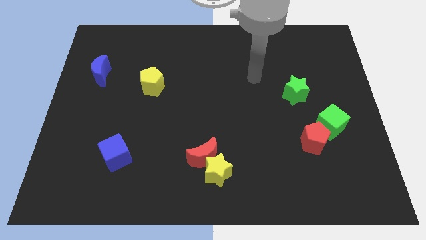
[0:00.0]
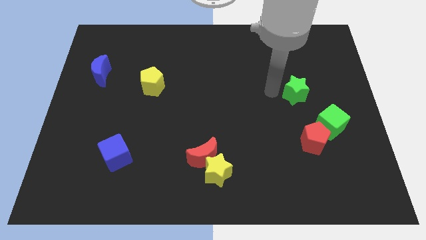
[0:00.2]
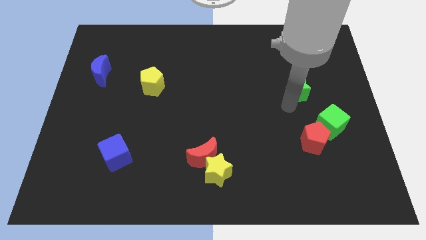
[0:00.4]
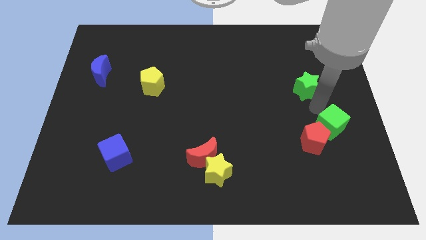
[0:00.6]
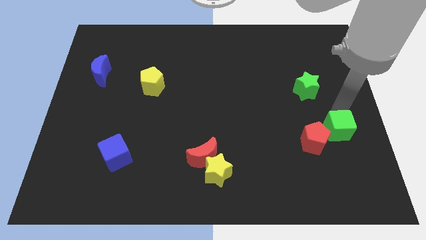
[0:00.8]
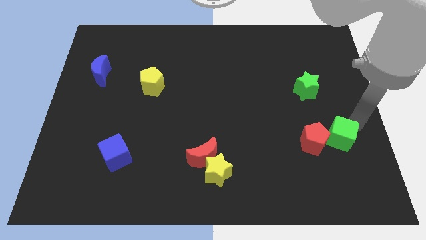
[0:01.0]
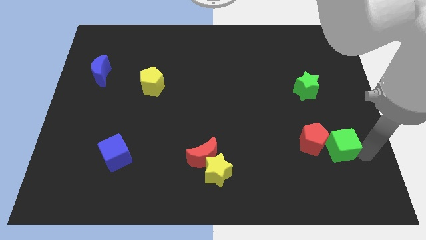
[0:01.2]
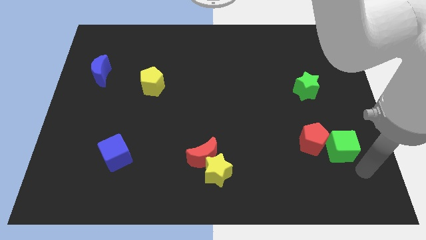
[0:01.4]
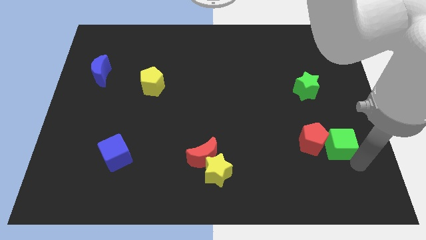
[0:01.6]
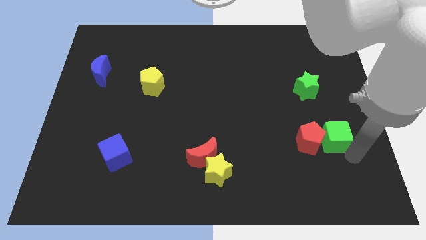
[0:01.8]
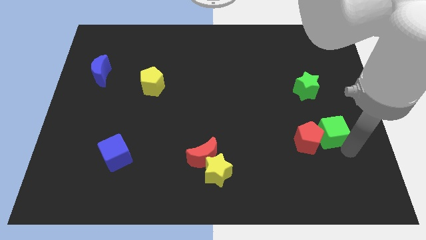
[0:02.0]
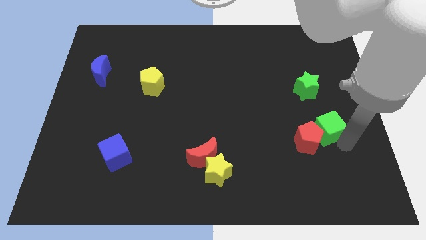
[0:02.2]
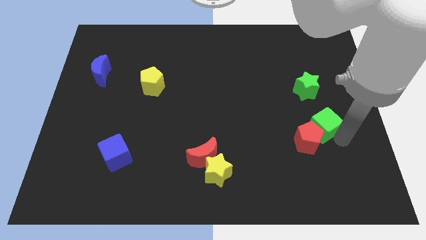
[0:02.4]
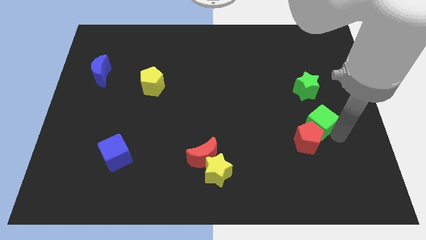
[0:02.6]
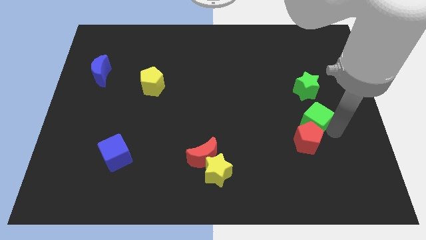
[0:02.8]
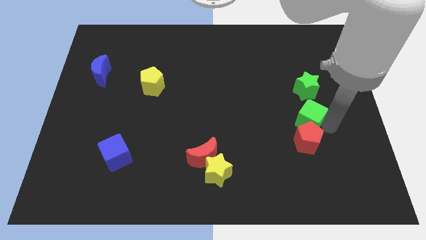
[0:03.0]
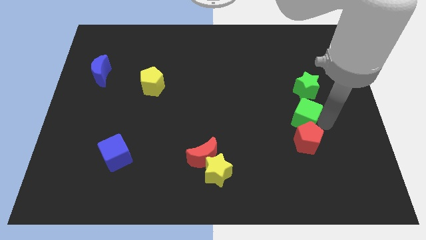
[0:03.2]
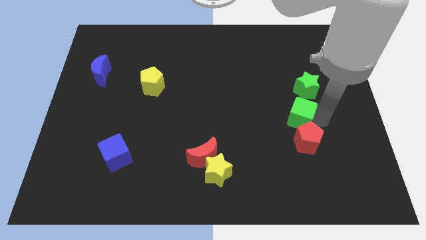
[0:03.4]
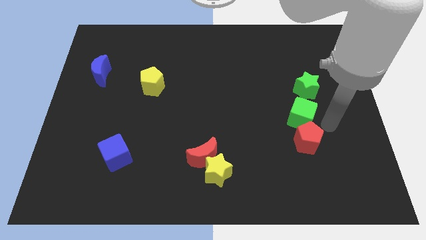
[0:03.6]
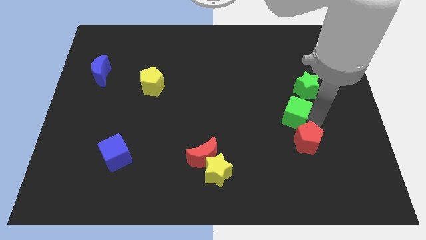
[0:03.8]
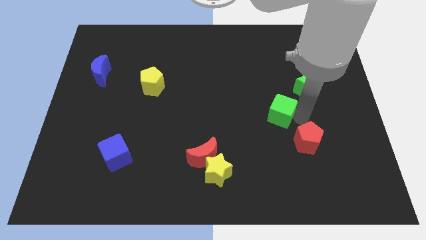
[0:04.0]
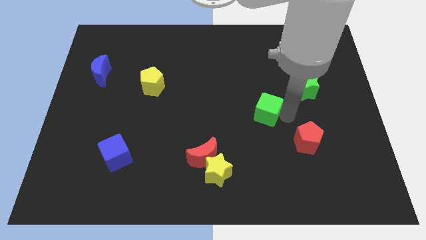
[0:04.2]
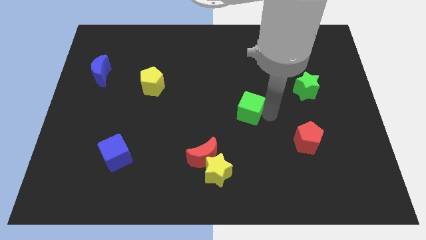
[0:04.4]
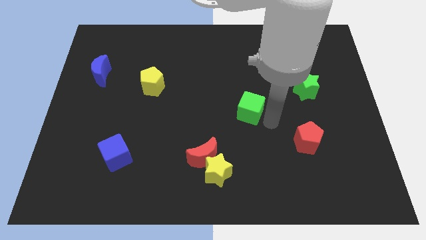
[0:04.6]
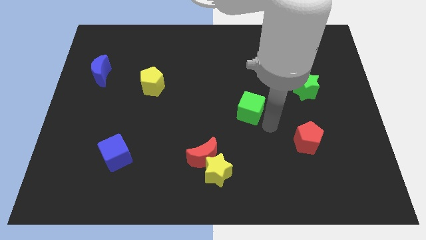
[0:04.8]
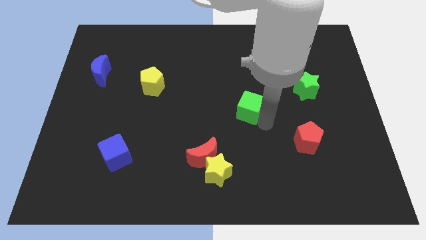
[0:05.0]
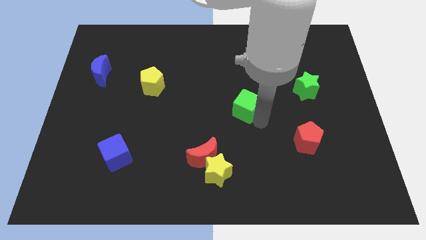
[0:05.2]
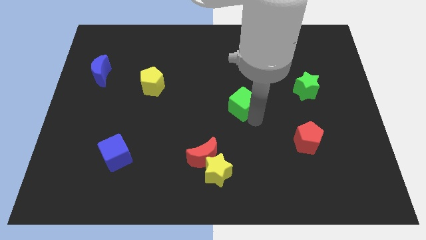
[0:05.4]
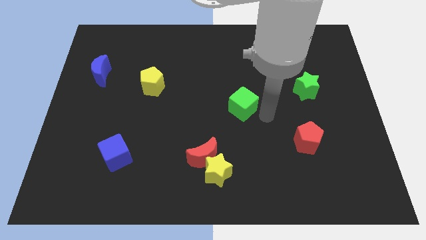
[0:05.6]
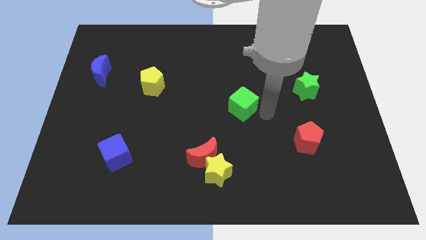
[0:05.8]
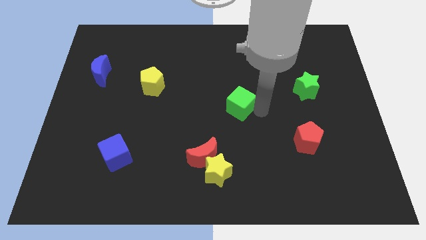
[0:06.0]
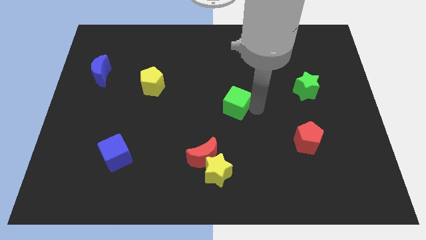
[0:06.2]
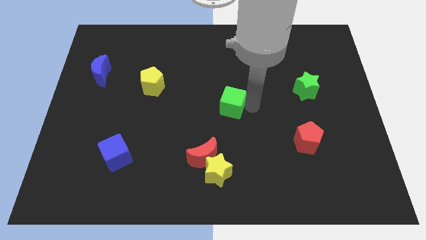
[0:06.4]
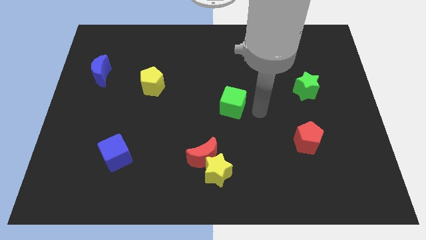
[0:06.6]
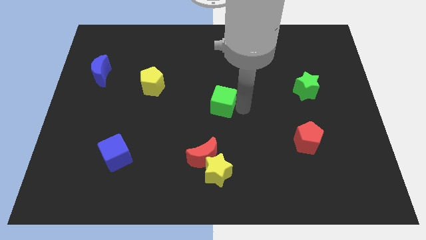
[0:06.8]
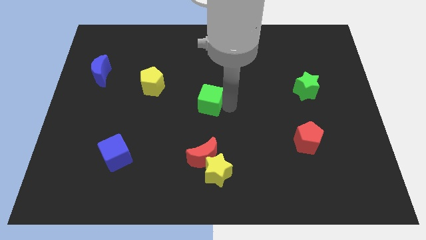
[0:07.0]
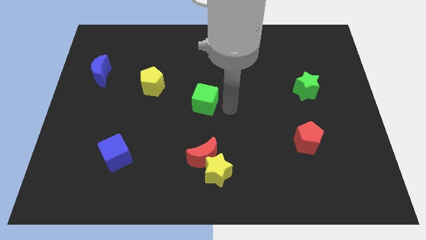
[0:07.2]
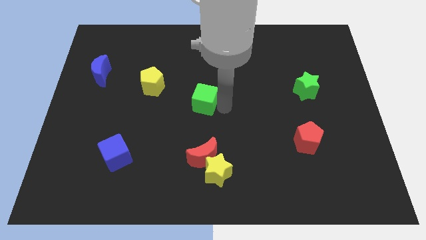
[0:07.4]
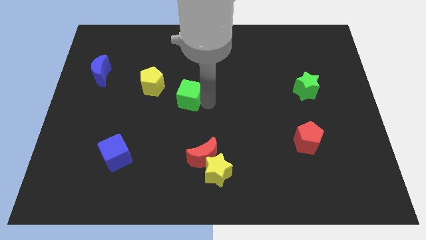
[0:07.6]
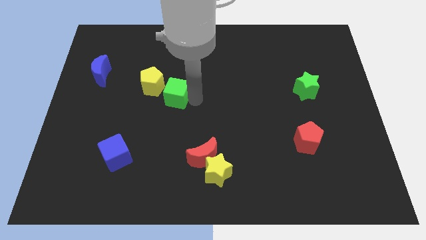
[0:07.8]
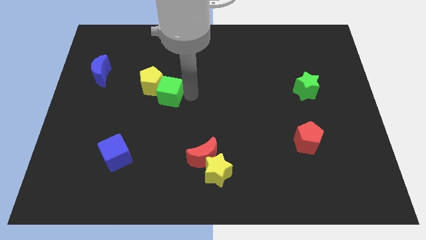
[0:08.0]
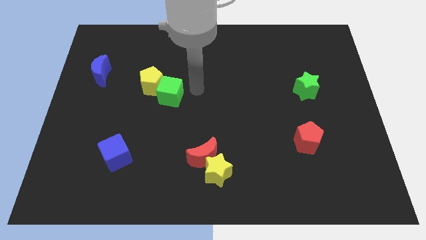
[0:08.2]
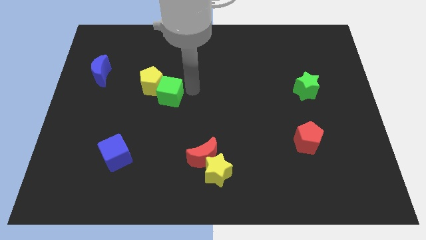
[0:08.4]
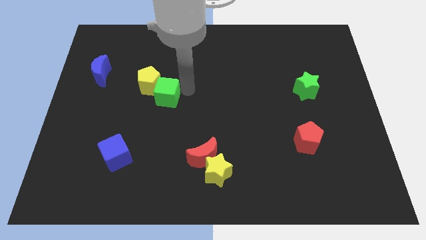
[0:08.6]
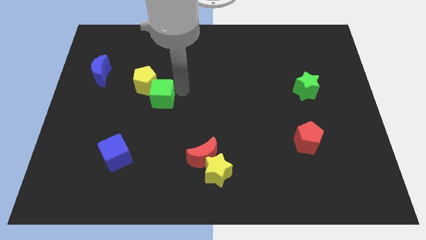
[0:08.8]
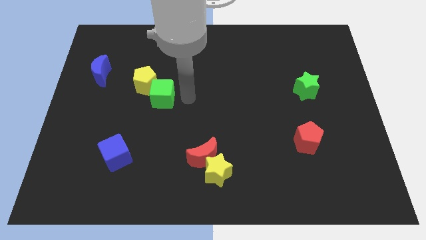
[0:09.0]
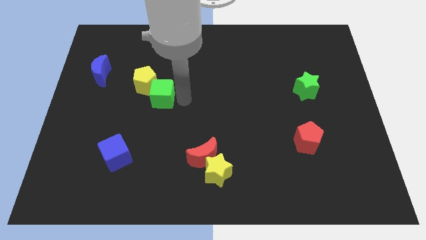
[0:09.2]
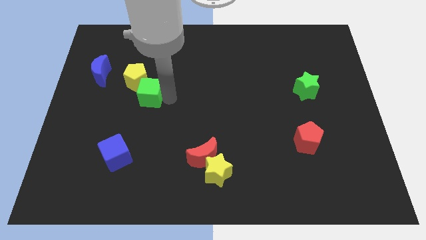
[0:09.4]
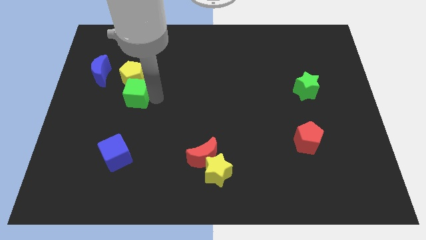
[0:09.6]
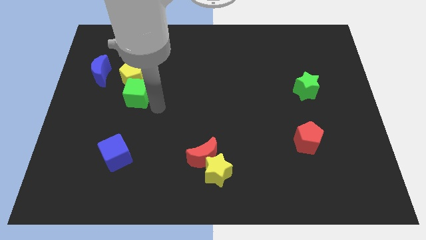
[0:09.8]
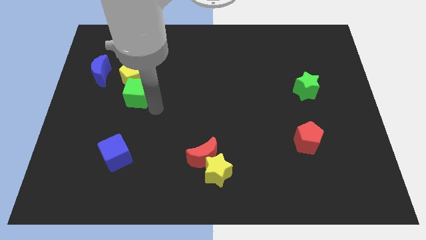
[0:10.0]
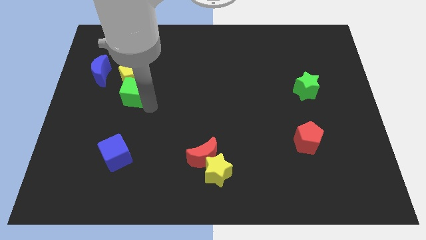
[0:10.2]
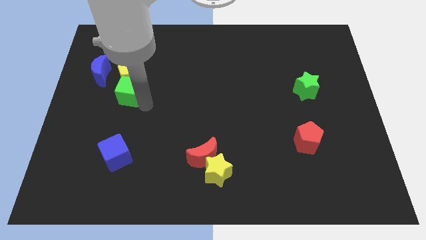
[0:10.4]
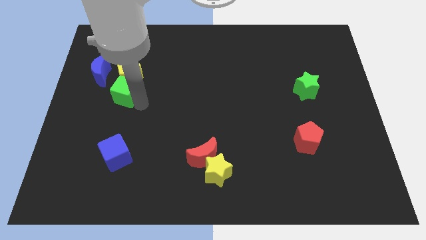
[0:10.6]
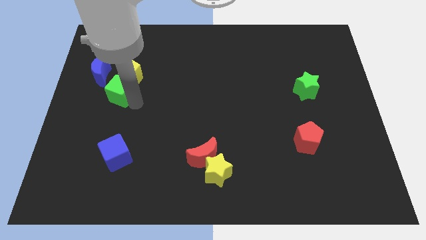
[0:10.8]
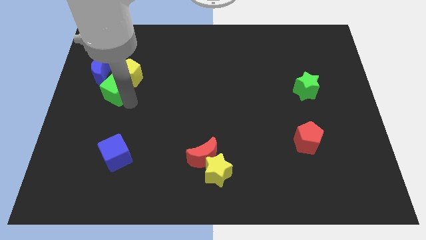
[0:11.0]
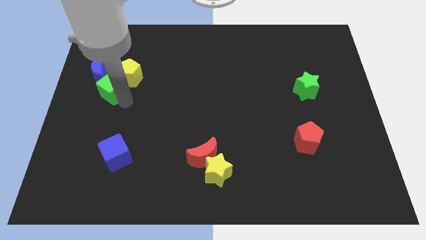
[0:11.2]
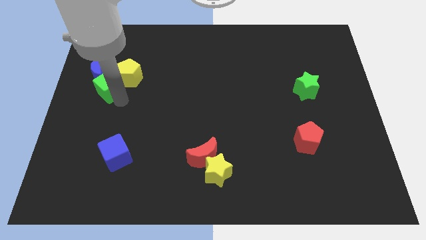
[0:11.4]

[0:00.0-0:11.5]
move the green cube next to the blue moon

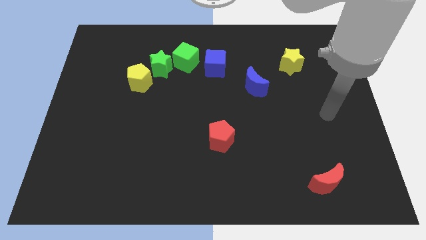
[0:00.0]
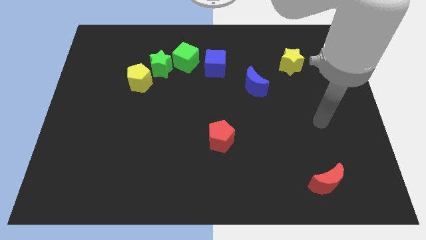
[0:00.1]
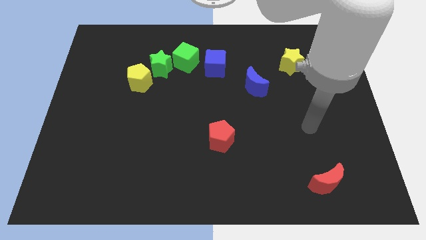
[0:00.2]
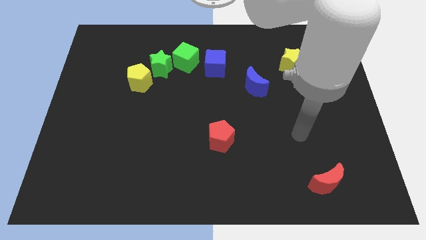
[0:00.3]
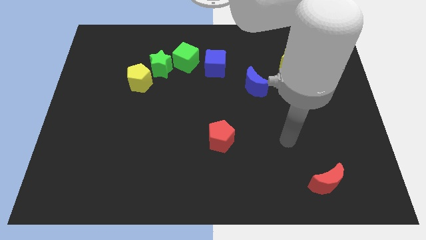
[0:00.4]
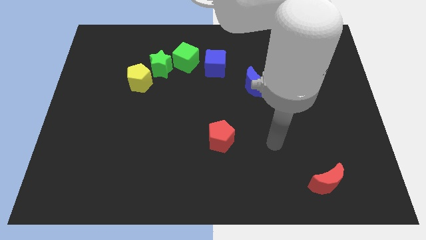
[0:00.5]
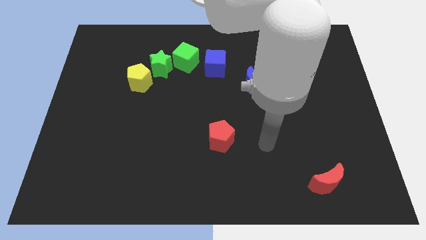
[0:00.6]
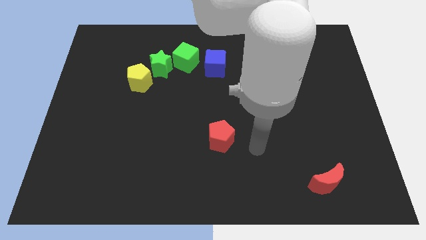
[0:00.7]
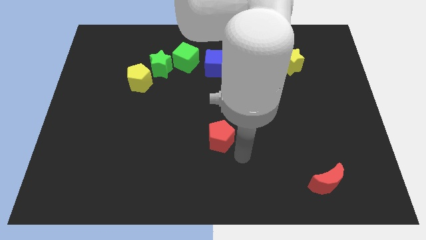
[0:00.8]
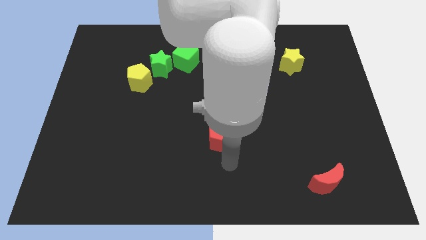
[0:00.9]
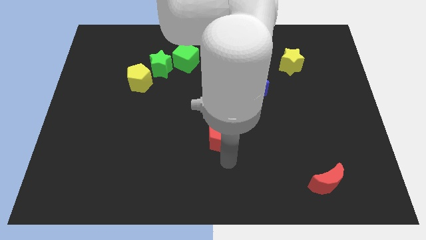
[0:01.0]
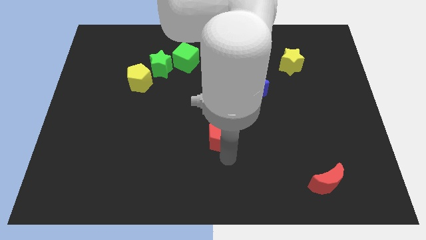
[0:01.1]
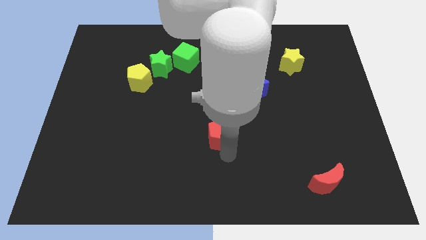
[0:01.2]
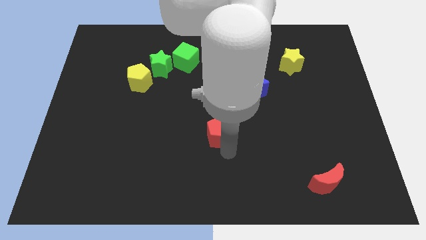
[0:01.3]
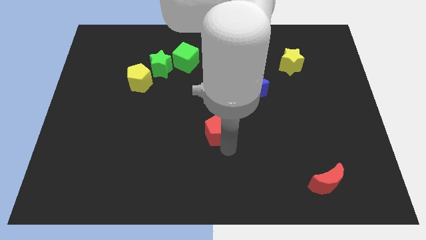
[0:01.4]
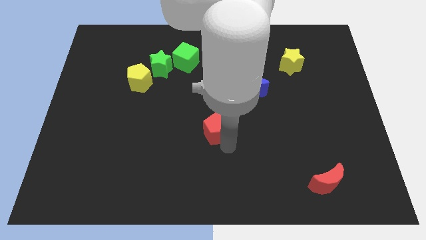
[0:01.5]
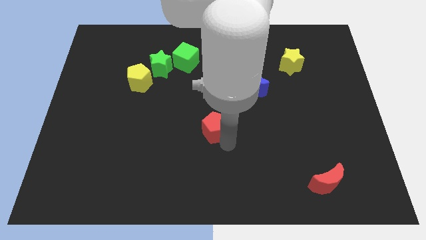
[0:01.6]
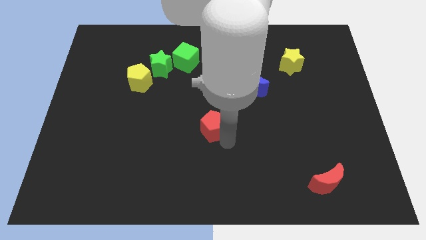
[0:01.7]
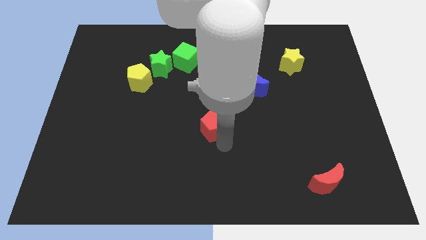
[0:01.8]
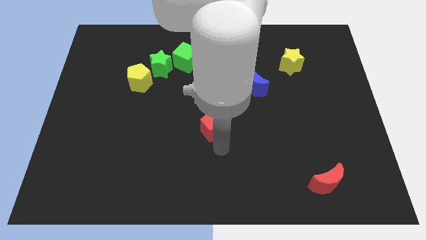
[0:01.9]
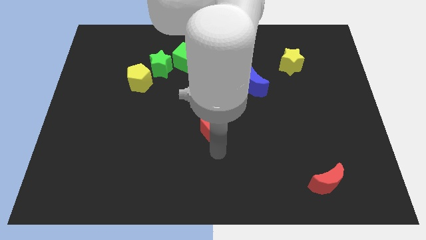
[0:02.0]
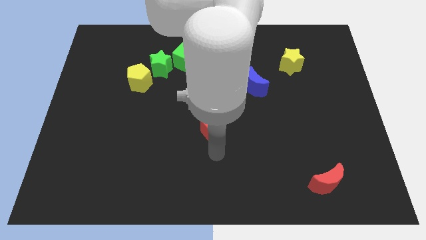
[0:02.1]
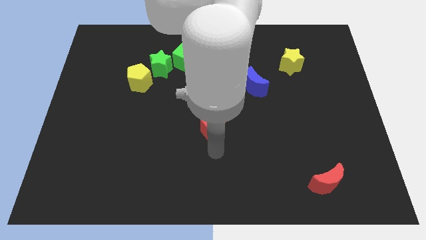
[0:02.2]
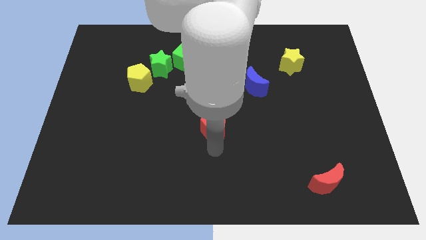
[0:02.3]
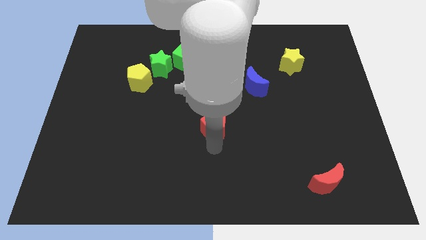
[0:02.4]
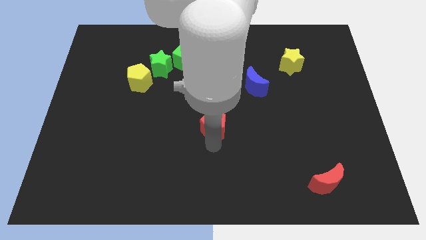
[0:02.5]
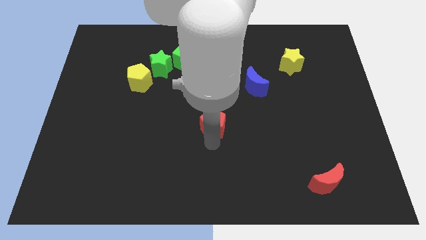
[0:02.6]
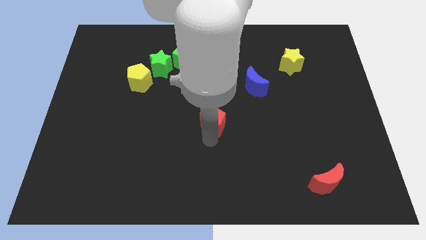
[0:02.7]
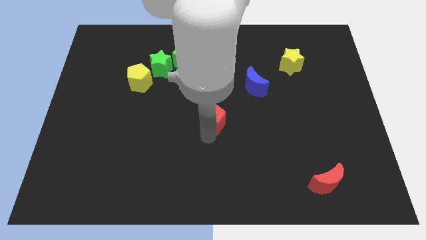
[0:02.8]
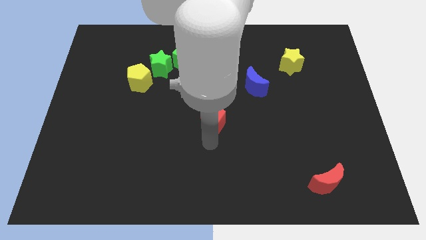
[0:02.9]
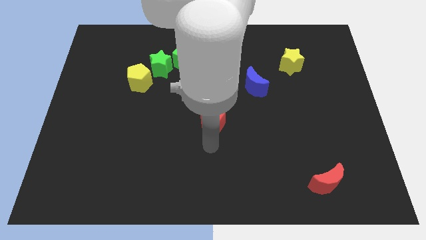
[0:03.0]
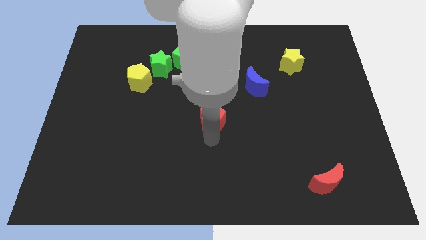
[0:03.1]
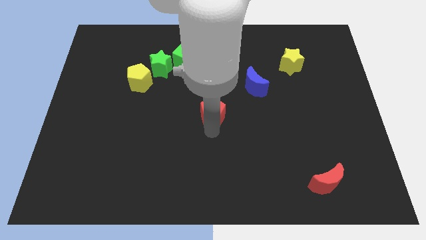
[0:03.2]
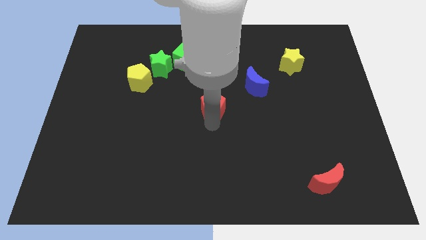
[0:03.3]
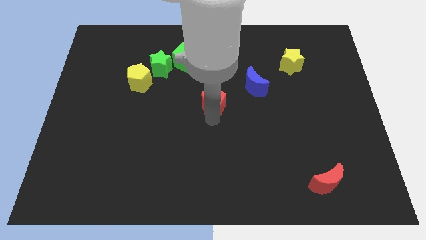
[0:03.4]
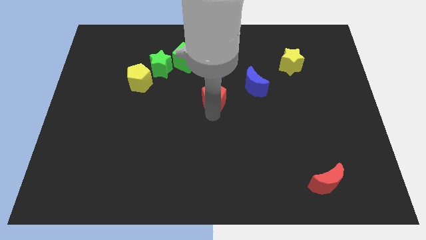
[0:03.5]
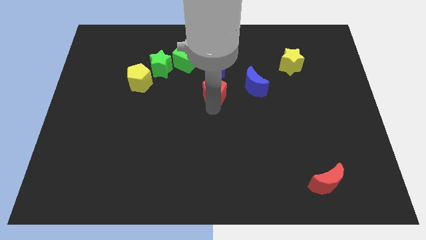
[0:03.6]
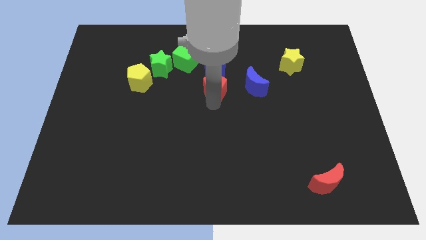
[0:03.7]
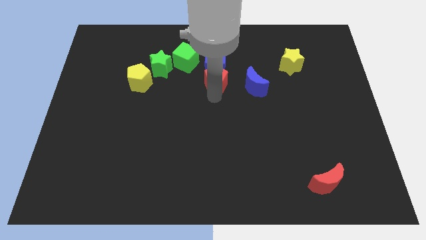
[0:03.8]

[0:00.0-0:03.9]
put the red pentagon close to the blue cube
